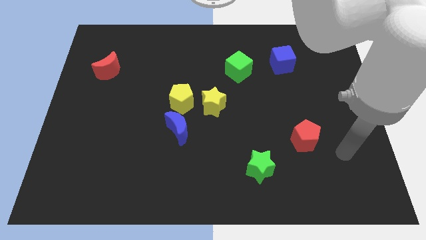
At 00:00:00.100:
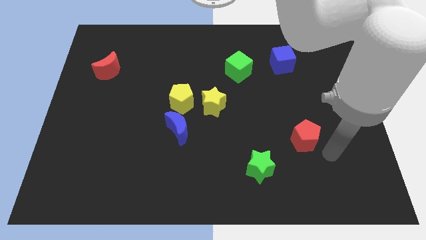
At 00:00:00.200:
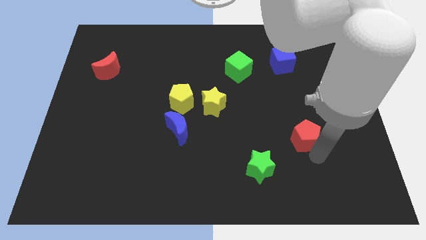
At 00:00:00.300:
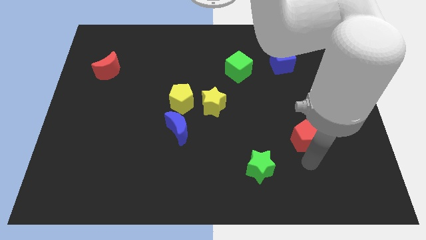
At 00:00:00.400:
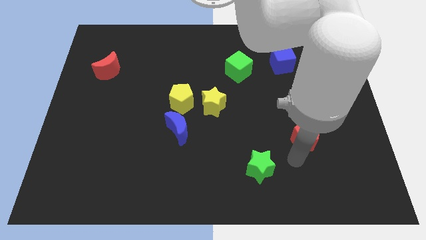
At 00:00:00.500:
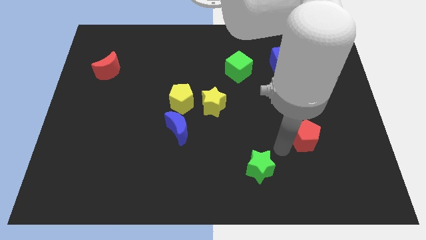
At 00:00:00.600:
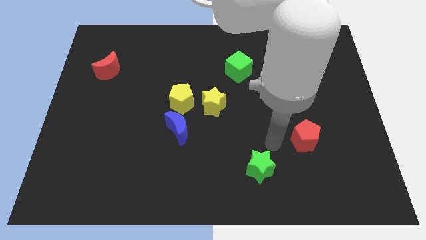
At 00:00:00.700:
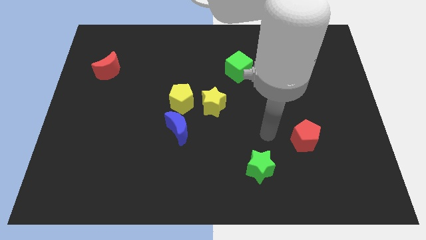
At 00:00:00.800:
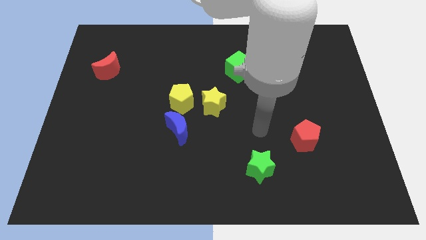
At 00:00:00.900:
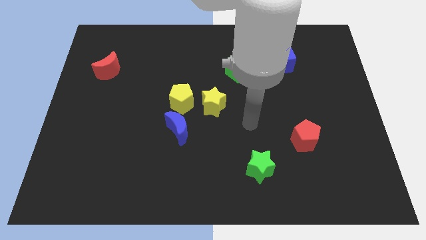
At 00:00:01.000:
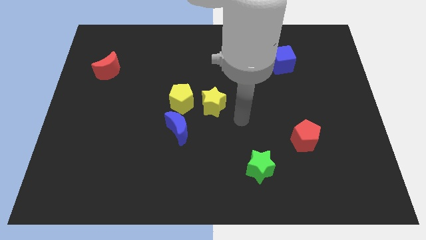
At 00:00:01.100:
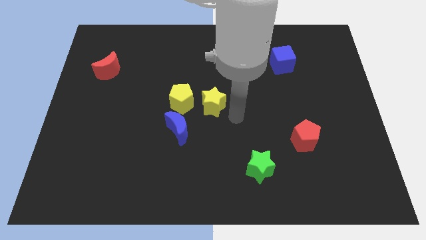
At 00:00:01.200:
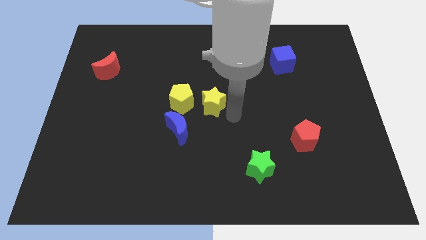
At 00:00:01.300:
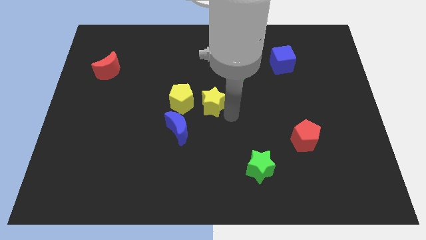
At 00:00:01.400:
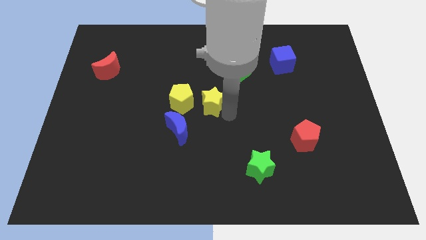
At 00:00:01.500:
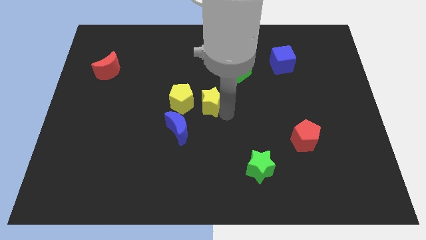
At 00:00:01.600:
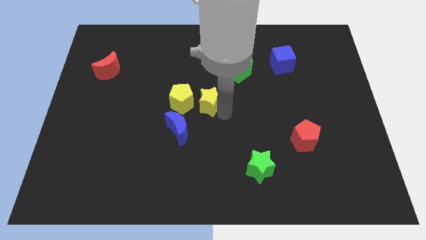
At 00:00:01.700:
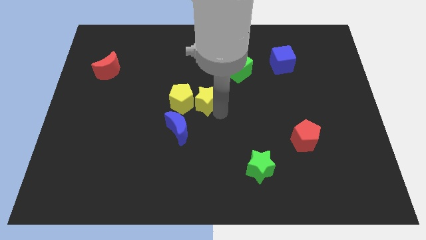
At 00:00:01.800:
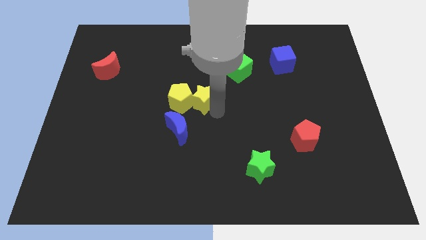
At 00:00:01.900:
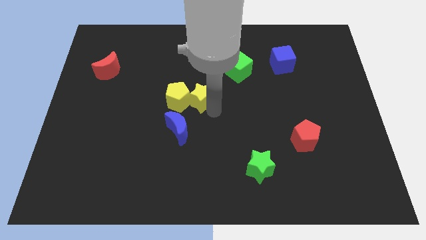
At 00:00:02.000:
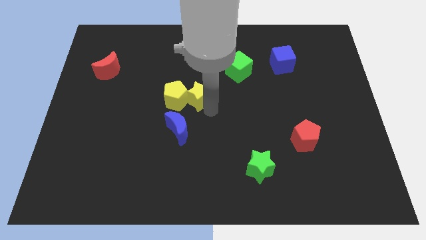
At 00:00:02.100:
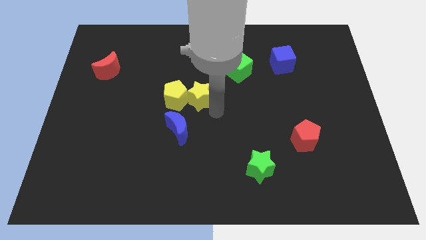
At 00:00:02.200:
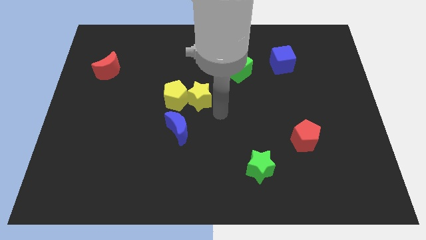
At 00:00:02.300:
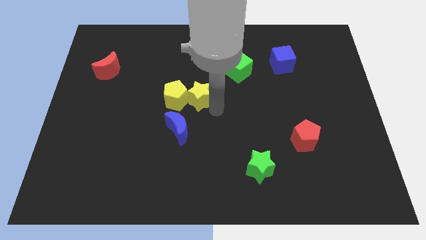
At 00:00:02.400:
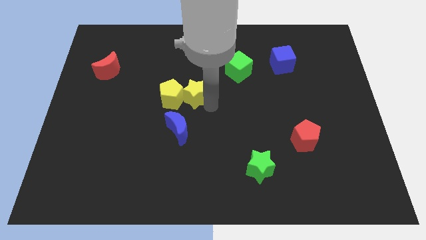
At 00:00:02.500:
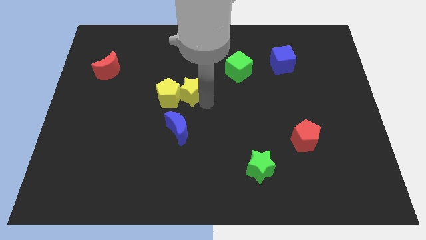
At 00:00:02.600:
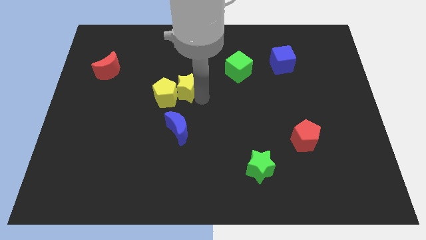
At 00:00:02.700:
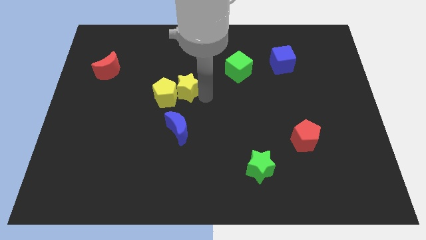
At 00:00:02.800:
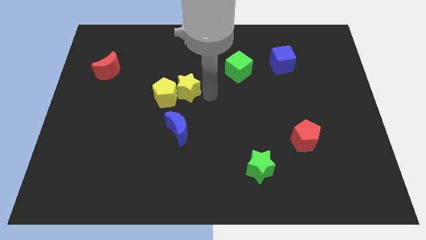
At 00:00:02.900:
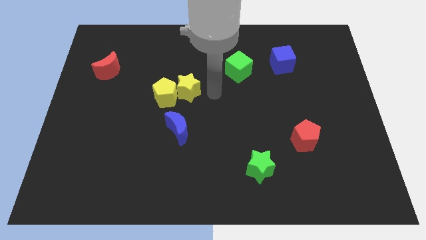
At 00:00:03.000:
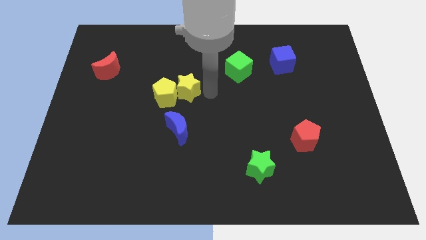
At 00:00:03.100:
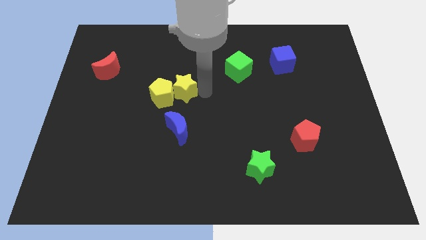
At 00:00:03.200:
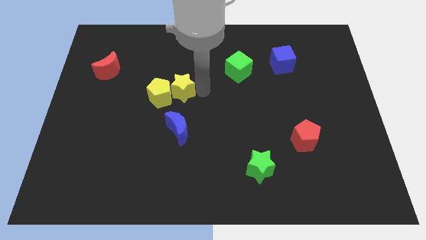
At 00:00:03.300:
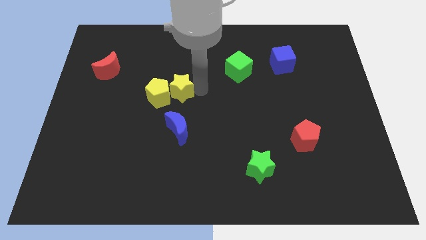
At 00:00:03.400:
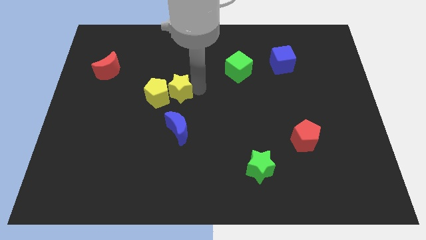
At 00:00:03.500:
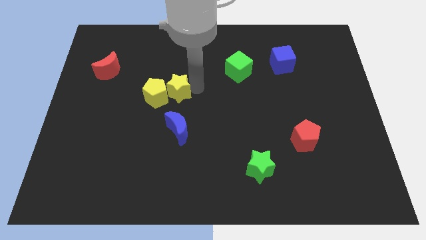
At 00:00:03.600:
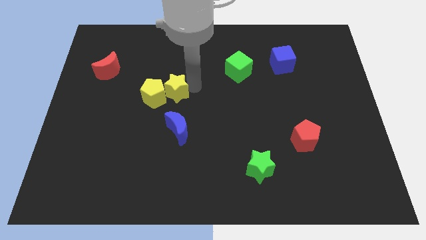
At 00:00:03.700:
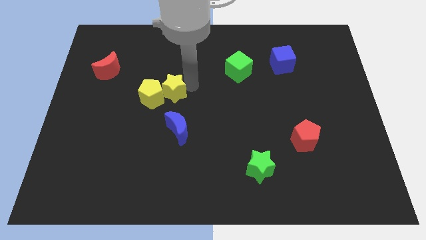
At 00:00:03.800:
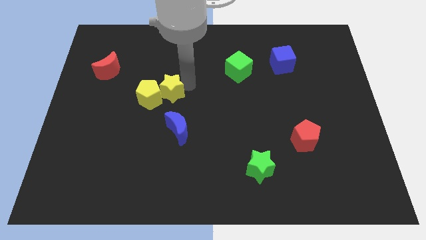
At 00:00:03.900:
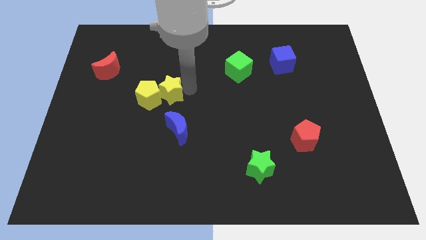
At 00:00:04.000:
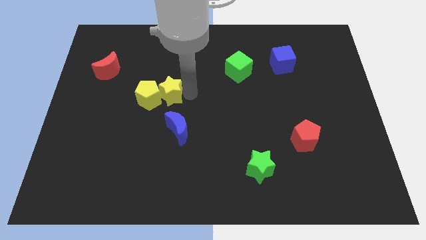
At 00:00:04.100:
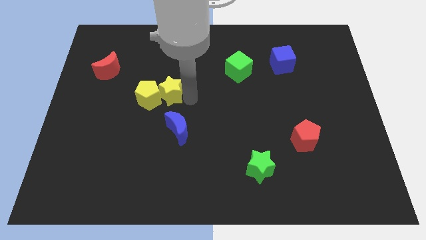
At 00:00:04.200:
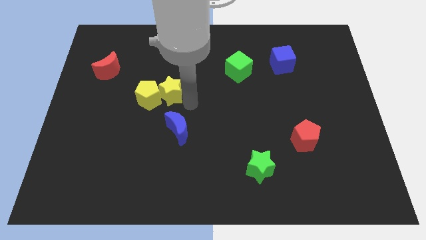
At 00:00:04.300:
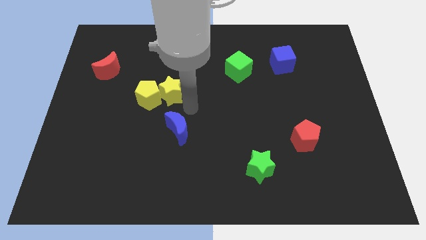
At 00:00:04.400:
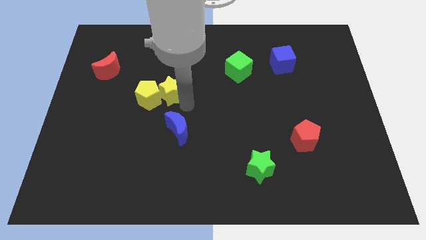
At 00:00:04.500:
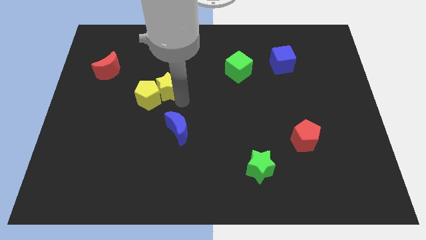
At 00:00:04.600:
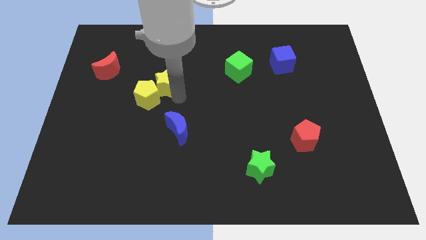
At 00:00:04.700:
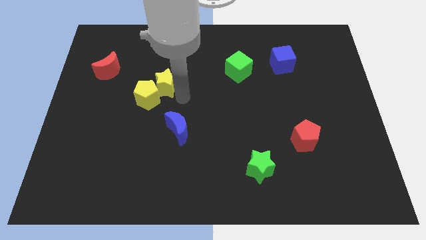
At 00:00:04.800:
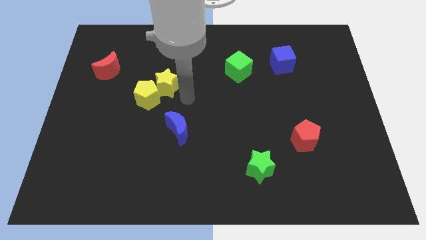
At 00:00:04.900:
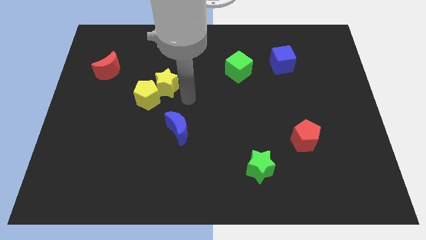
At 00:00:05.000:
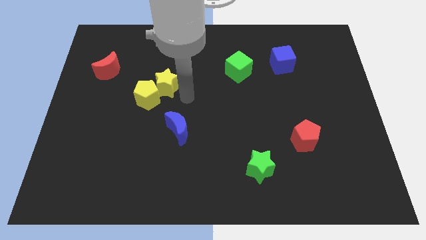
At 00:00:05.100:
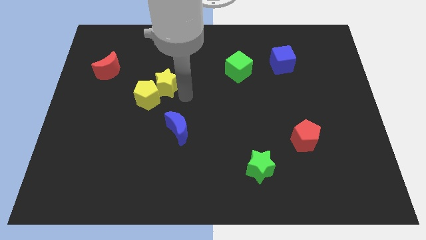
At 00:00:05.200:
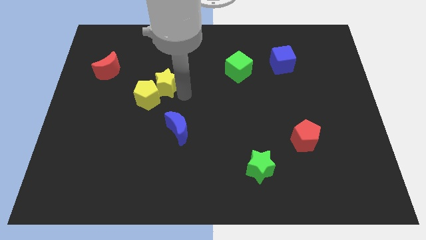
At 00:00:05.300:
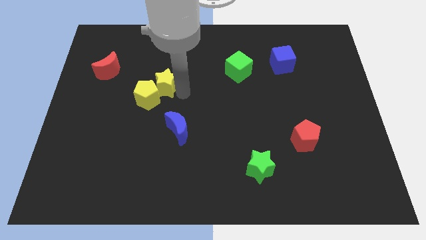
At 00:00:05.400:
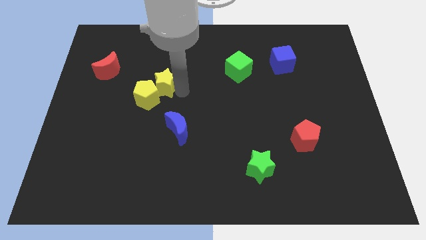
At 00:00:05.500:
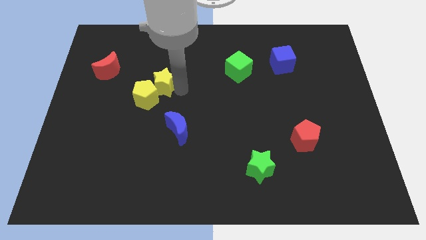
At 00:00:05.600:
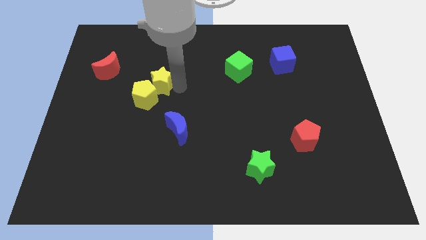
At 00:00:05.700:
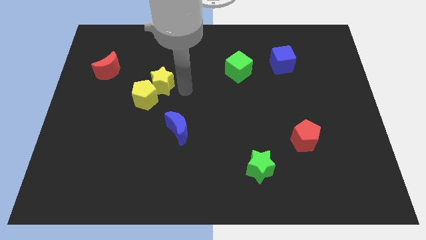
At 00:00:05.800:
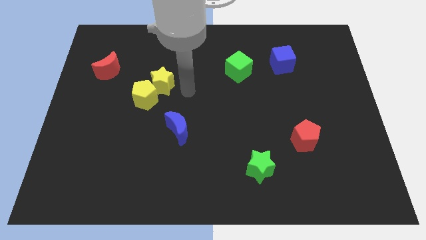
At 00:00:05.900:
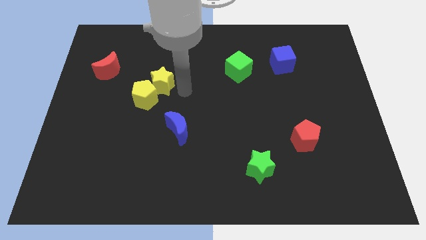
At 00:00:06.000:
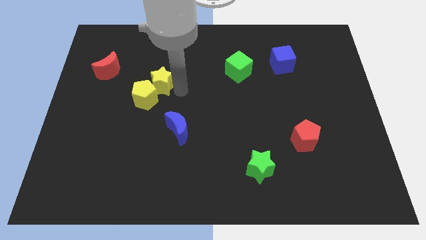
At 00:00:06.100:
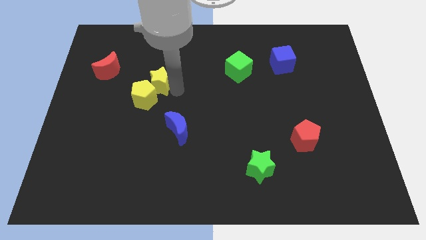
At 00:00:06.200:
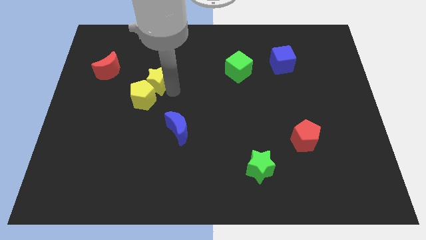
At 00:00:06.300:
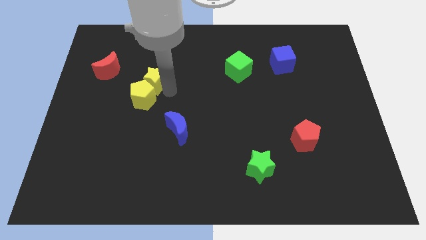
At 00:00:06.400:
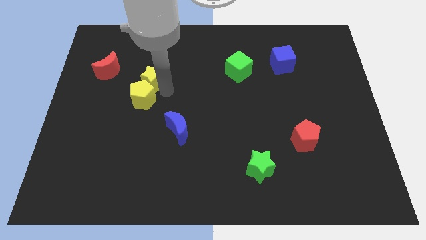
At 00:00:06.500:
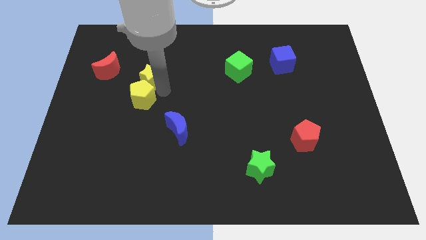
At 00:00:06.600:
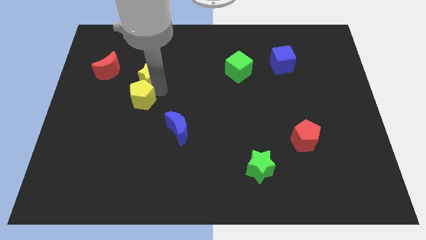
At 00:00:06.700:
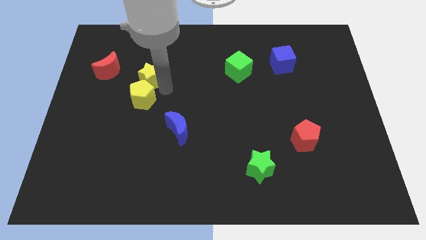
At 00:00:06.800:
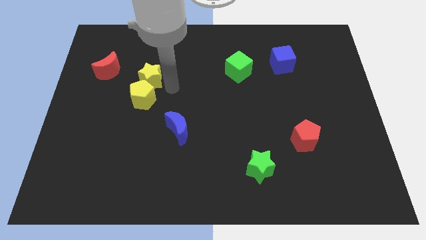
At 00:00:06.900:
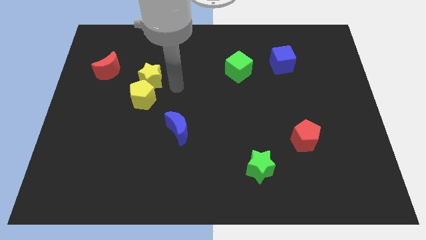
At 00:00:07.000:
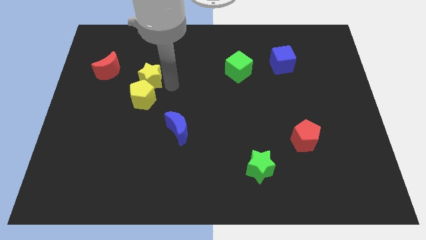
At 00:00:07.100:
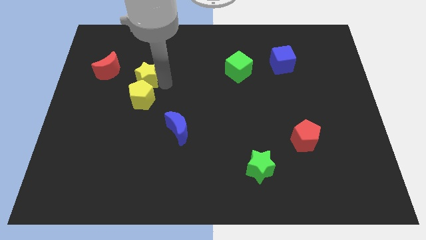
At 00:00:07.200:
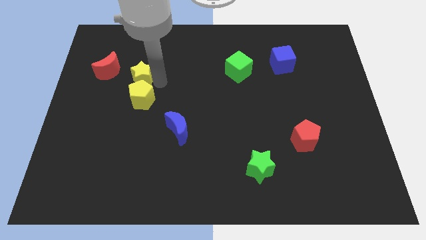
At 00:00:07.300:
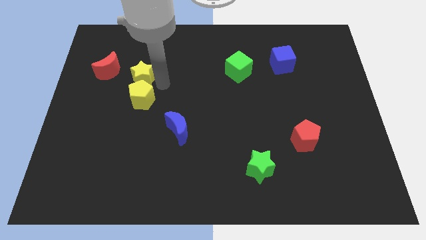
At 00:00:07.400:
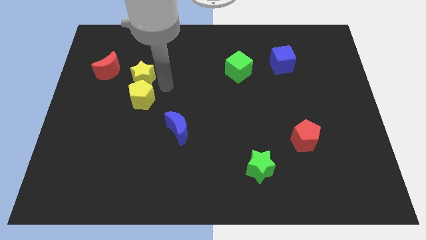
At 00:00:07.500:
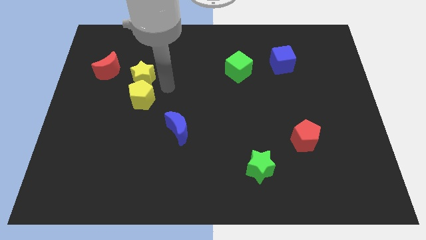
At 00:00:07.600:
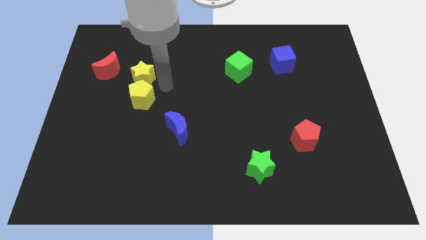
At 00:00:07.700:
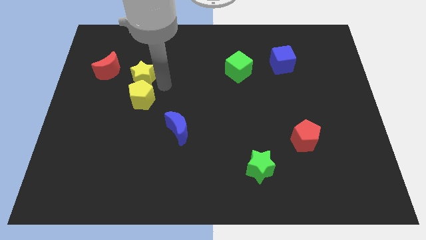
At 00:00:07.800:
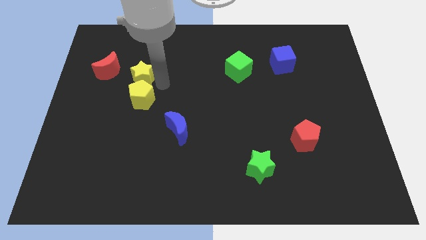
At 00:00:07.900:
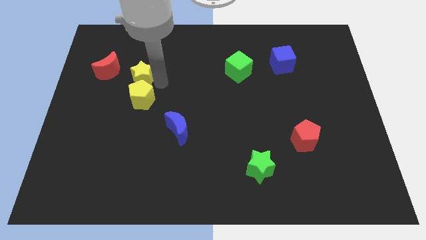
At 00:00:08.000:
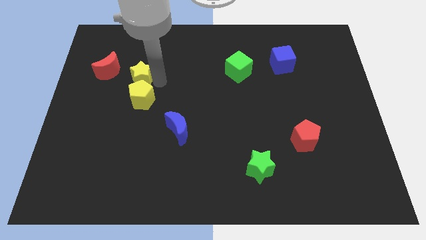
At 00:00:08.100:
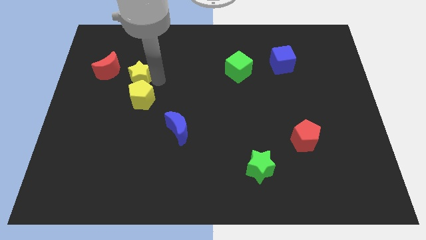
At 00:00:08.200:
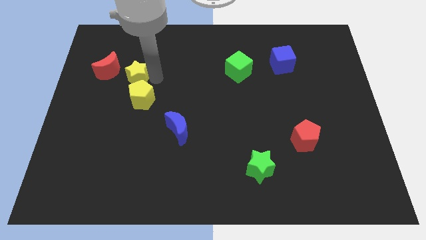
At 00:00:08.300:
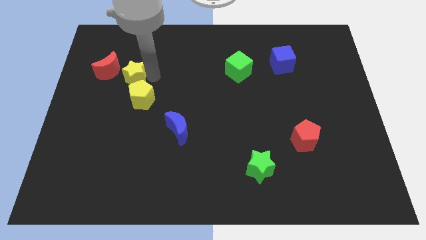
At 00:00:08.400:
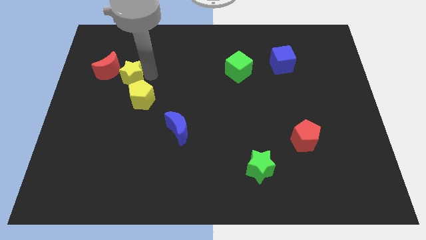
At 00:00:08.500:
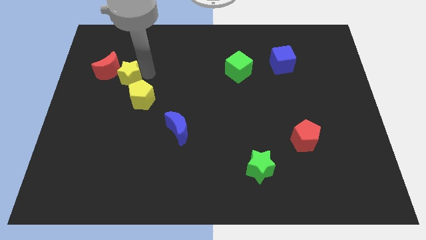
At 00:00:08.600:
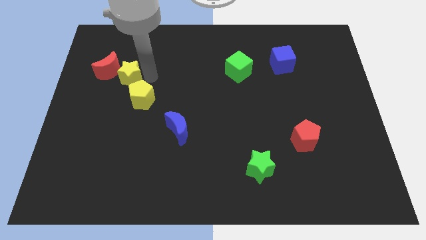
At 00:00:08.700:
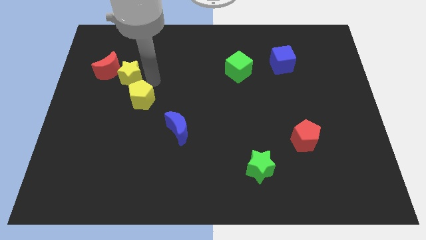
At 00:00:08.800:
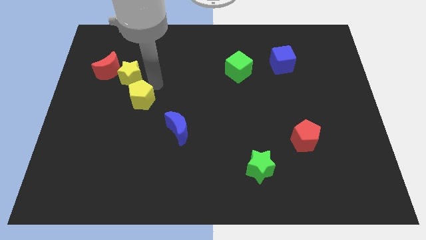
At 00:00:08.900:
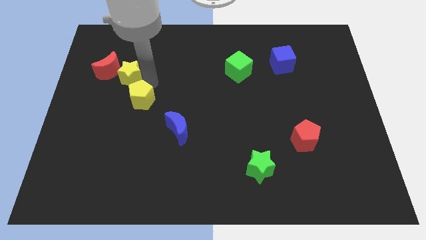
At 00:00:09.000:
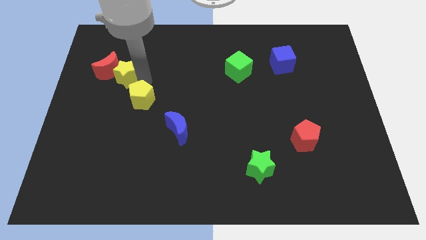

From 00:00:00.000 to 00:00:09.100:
slide the yellow star to the red moon
